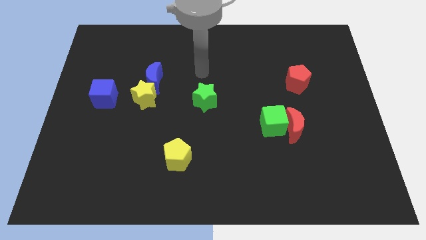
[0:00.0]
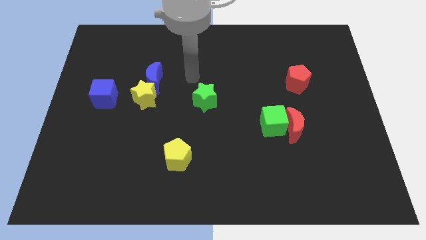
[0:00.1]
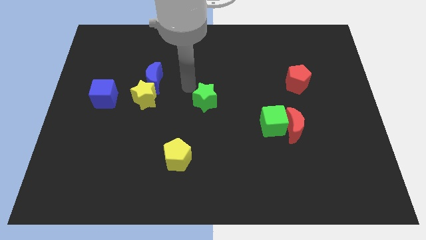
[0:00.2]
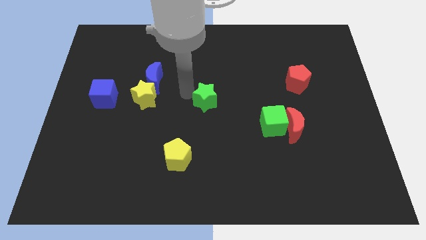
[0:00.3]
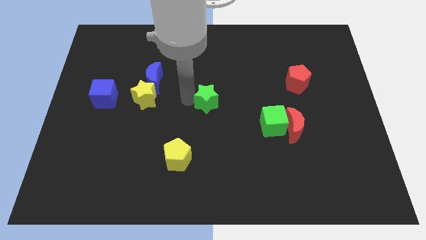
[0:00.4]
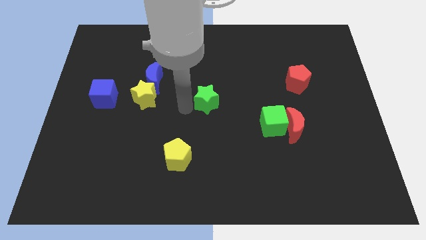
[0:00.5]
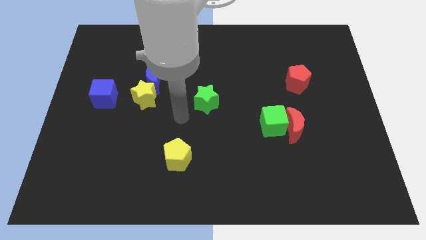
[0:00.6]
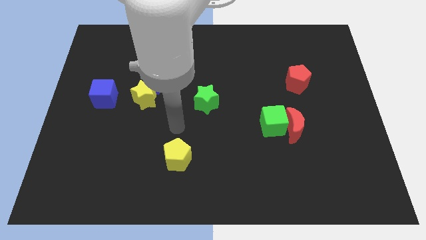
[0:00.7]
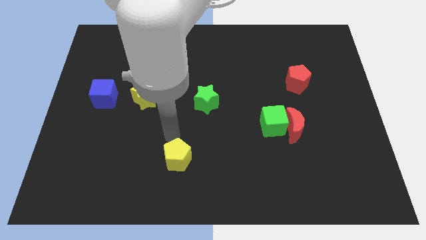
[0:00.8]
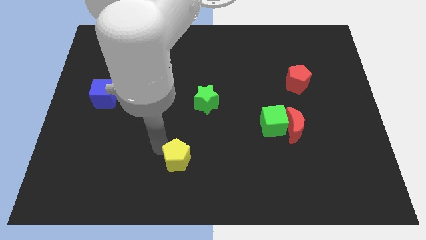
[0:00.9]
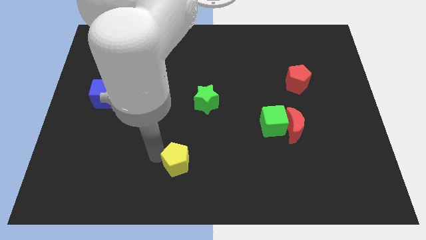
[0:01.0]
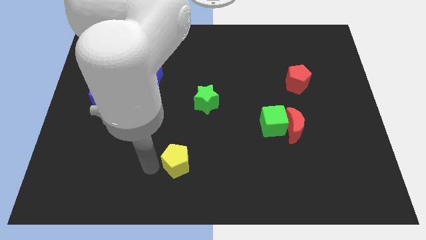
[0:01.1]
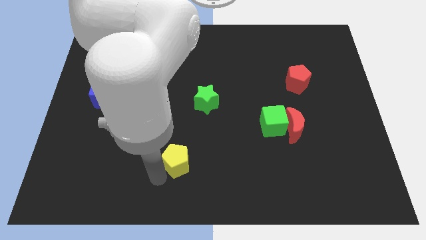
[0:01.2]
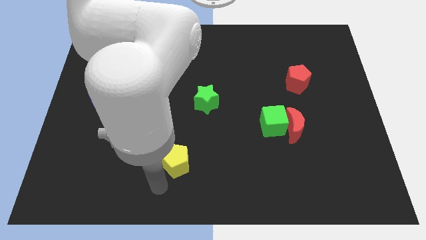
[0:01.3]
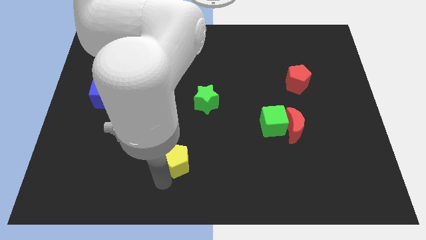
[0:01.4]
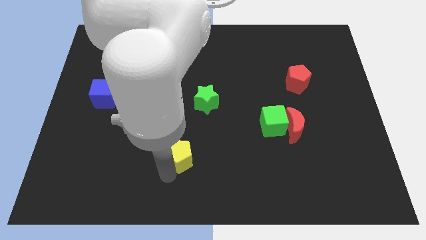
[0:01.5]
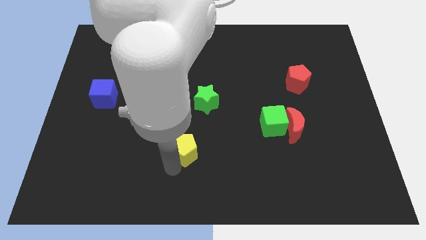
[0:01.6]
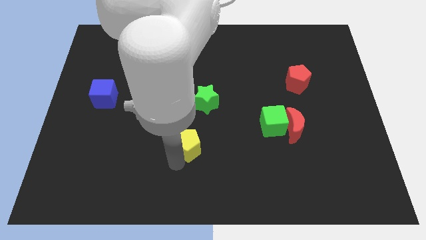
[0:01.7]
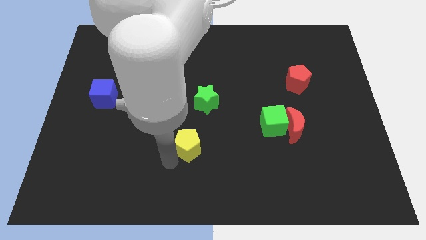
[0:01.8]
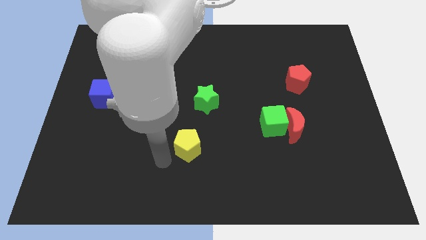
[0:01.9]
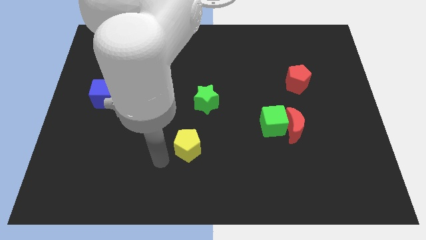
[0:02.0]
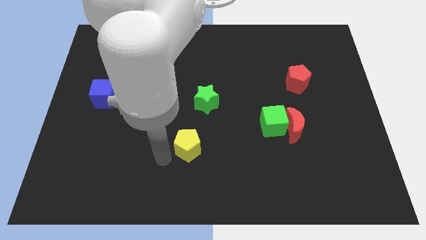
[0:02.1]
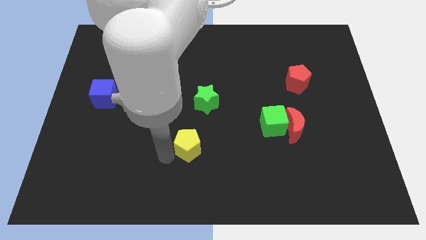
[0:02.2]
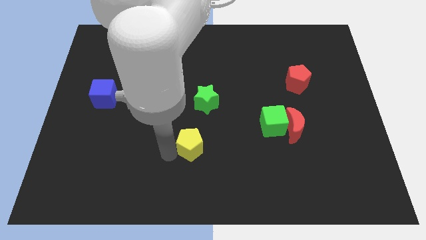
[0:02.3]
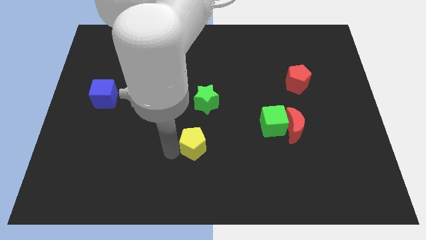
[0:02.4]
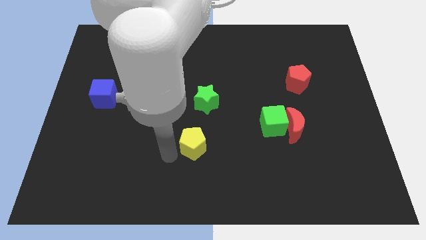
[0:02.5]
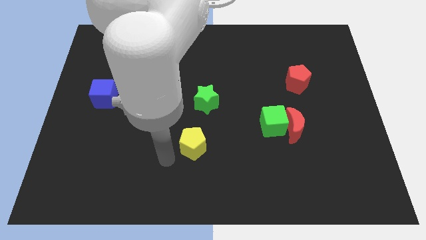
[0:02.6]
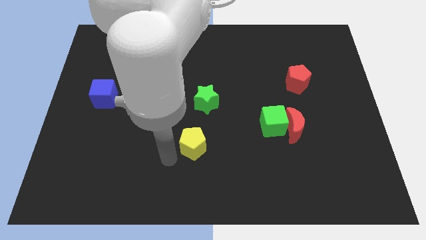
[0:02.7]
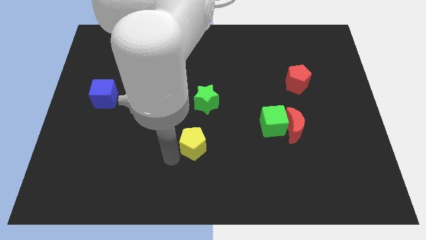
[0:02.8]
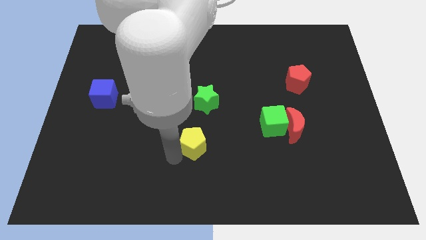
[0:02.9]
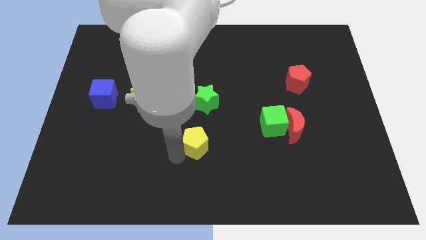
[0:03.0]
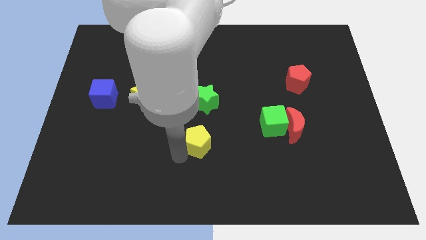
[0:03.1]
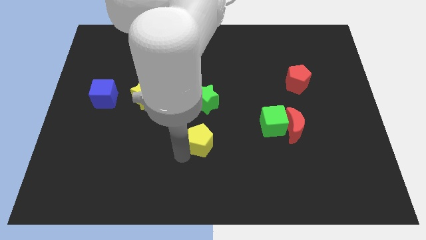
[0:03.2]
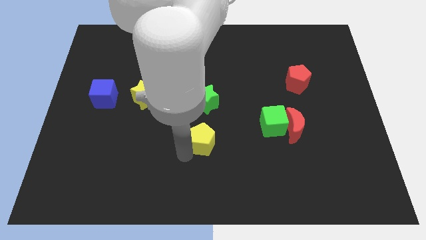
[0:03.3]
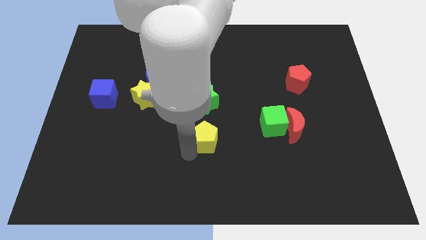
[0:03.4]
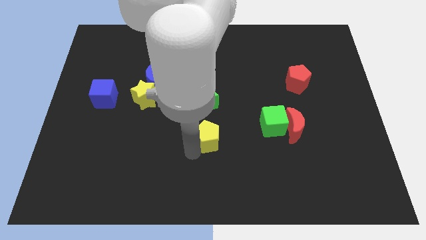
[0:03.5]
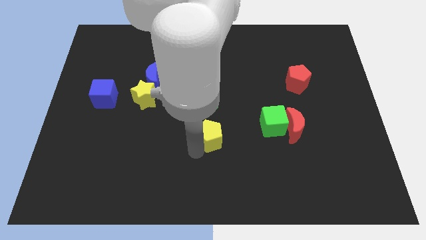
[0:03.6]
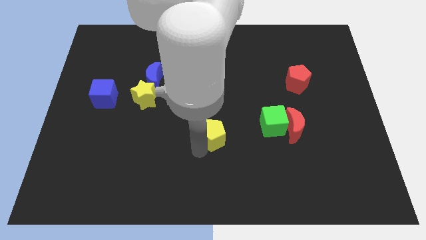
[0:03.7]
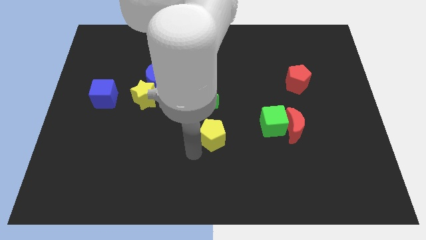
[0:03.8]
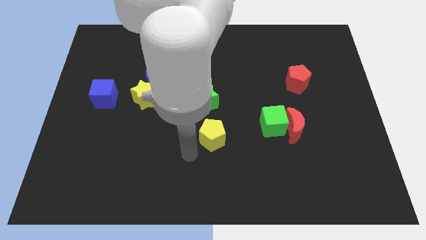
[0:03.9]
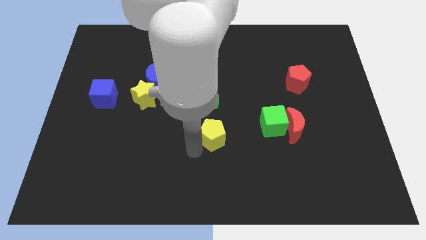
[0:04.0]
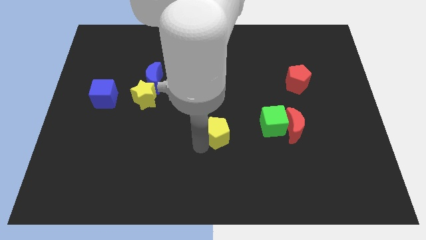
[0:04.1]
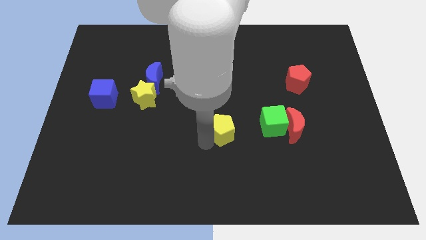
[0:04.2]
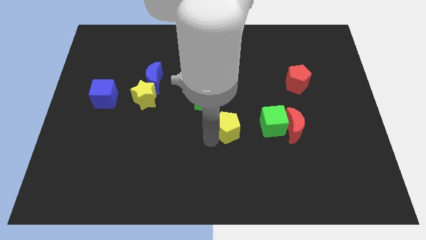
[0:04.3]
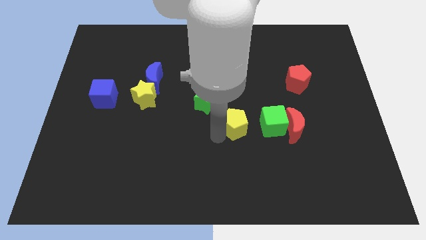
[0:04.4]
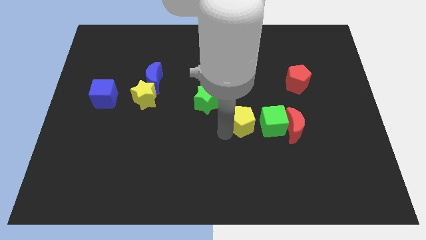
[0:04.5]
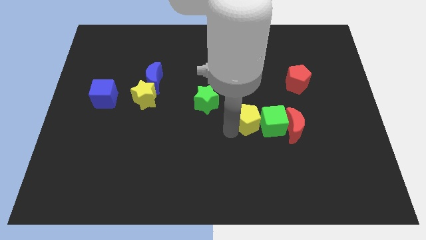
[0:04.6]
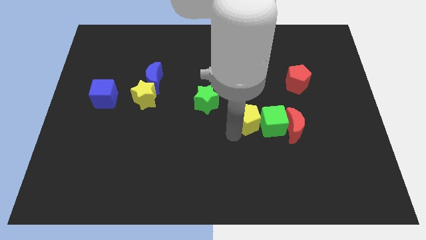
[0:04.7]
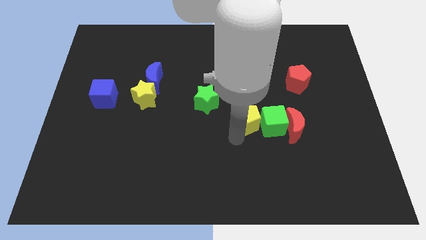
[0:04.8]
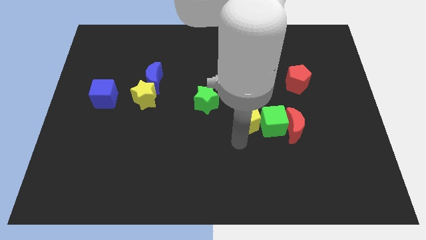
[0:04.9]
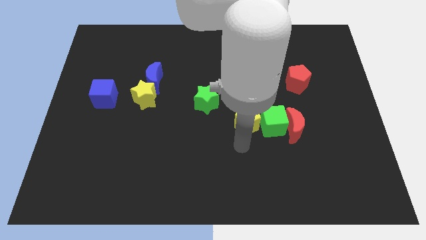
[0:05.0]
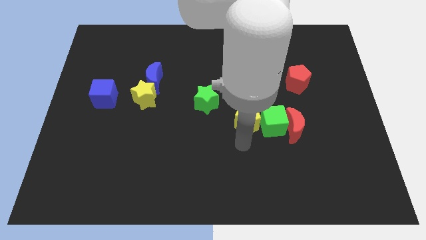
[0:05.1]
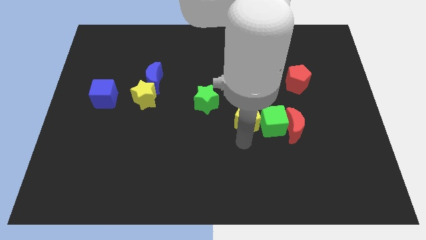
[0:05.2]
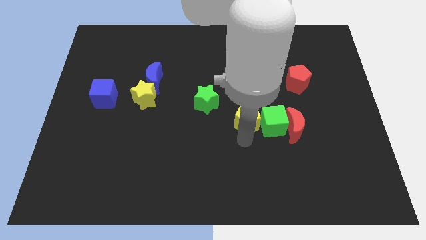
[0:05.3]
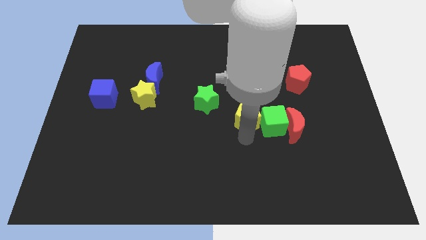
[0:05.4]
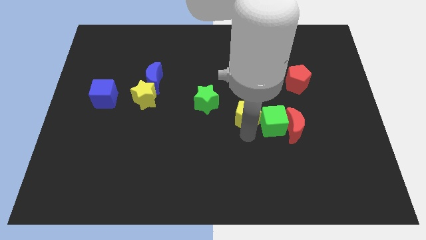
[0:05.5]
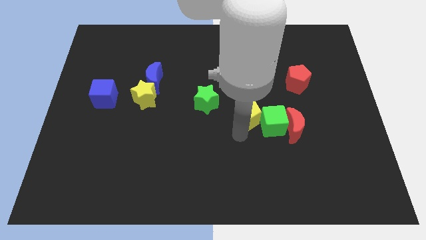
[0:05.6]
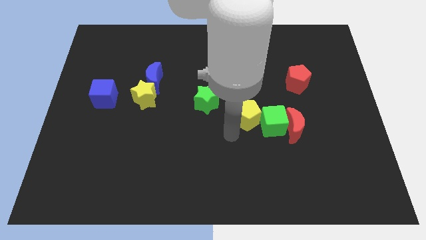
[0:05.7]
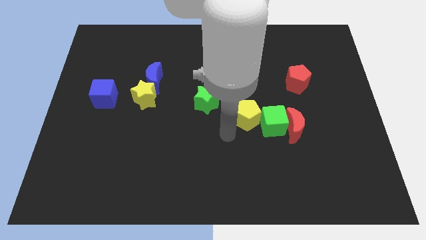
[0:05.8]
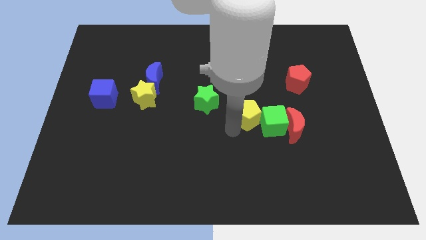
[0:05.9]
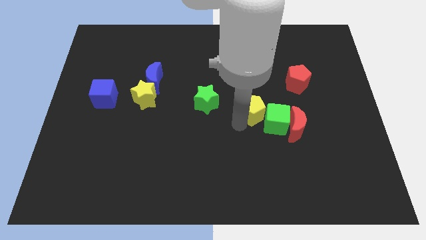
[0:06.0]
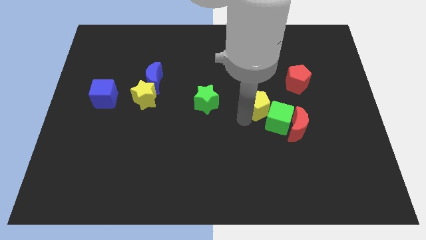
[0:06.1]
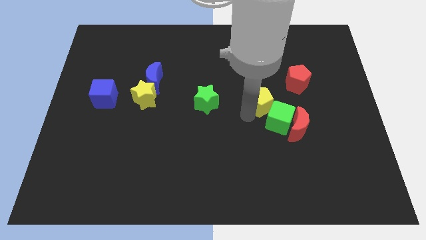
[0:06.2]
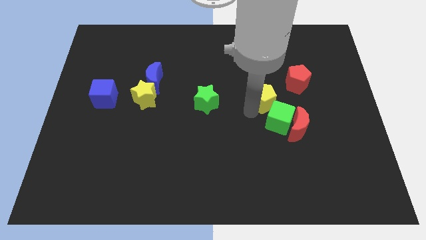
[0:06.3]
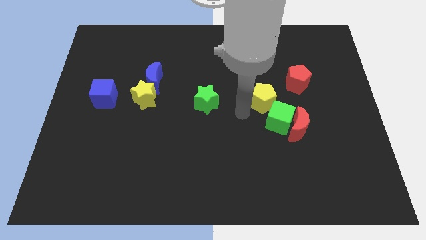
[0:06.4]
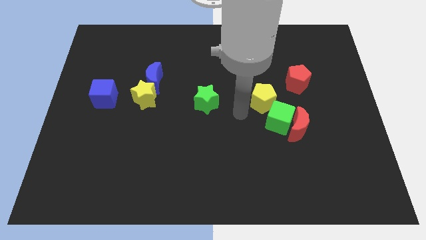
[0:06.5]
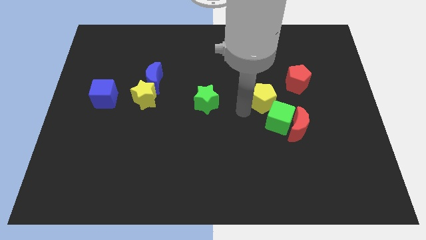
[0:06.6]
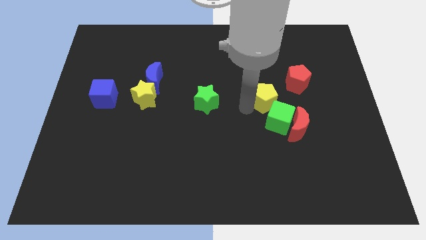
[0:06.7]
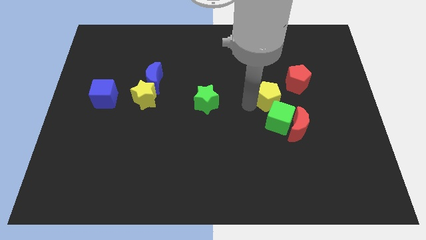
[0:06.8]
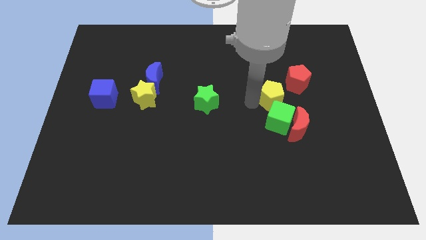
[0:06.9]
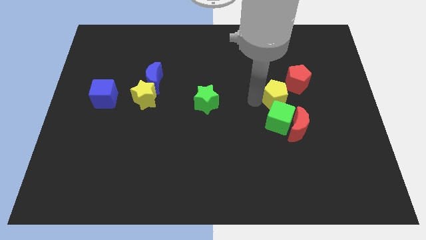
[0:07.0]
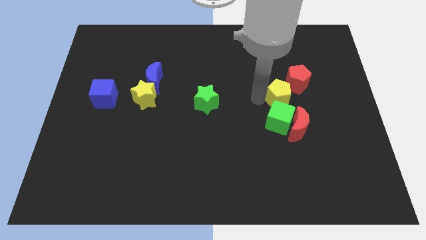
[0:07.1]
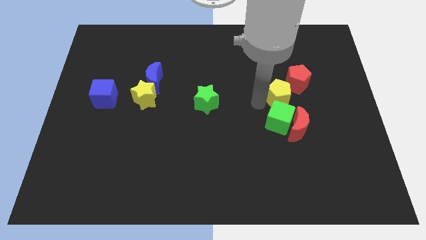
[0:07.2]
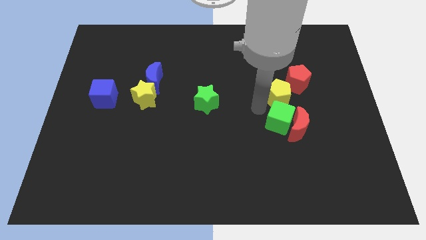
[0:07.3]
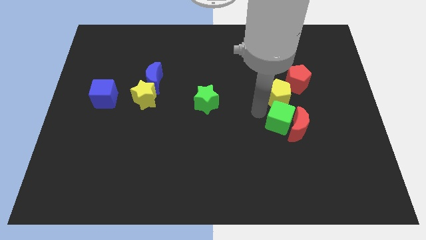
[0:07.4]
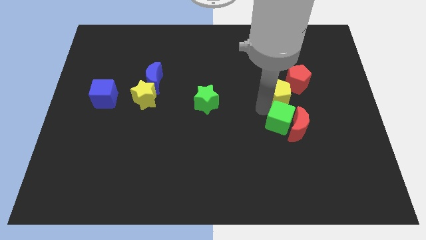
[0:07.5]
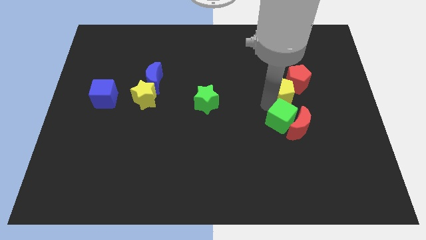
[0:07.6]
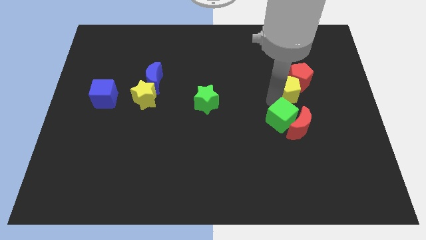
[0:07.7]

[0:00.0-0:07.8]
put the yellow pentagon close to the red pentagon

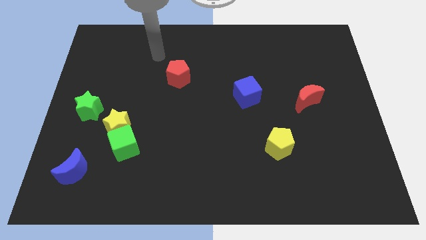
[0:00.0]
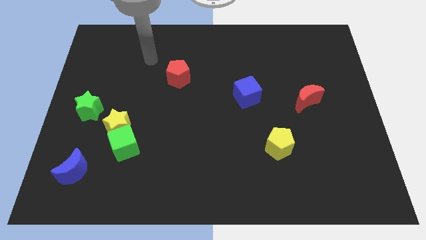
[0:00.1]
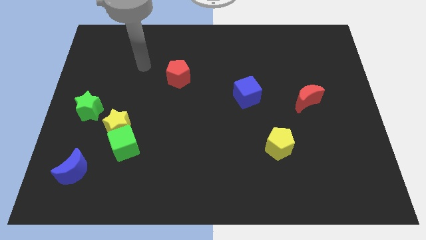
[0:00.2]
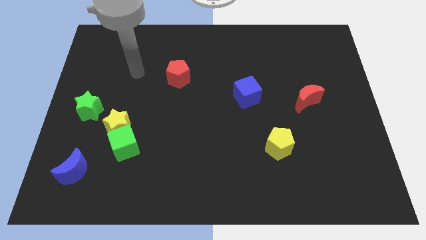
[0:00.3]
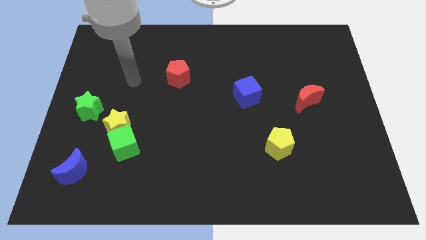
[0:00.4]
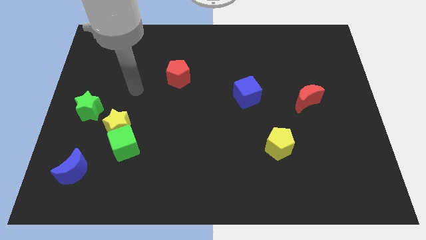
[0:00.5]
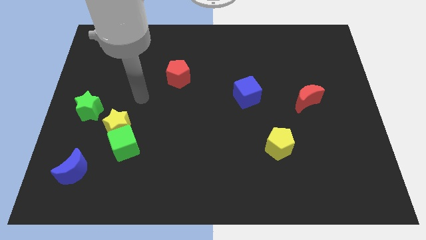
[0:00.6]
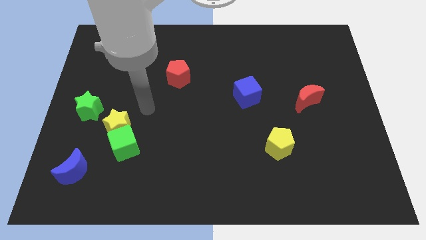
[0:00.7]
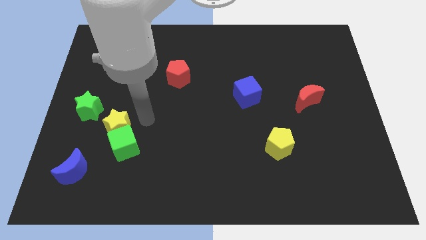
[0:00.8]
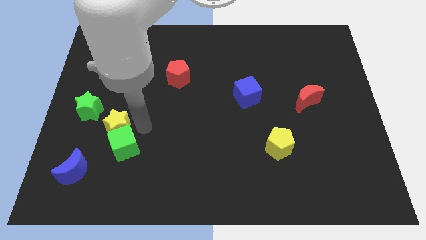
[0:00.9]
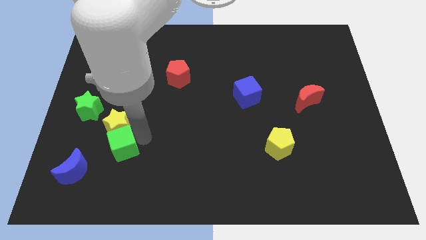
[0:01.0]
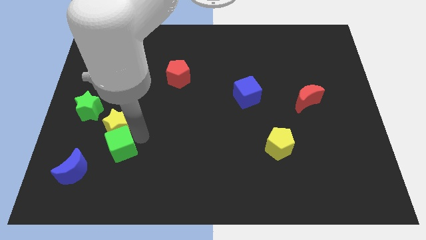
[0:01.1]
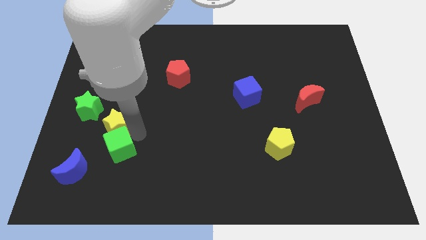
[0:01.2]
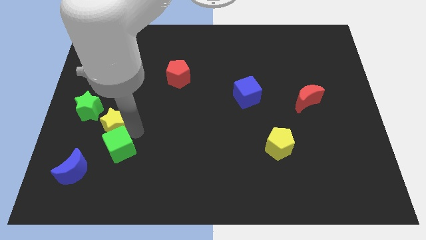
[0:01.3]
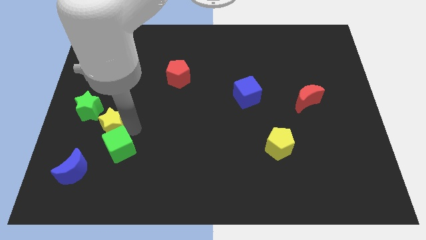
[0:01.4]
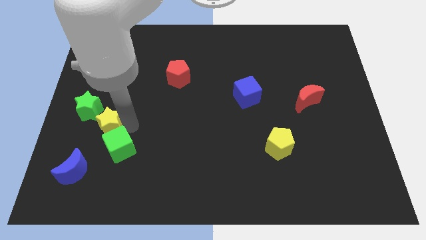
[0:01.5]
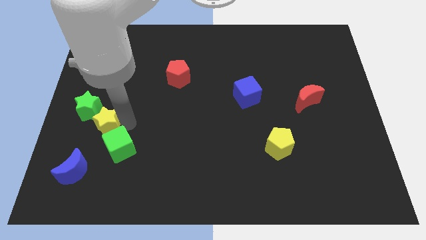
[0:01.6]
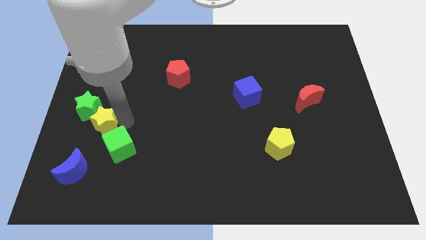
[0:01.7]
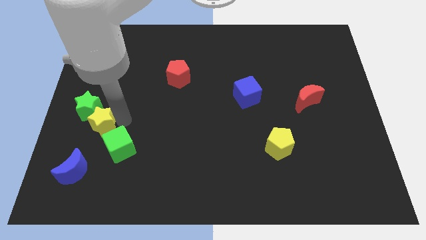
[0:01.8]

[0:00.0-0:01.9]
push the yellow star next to the green star
